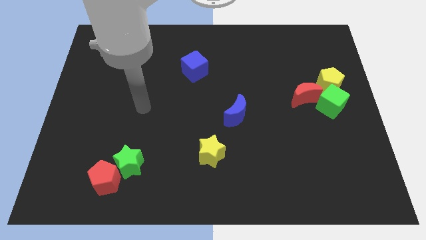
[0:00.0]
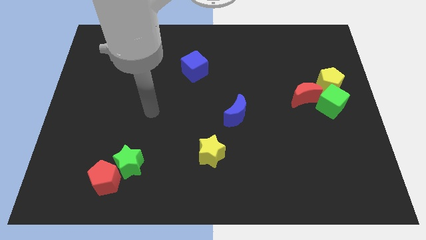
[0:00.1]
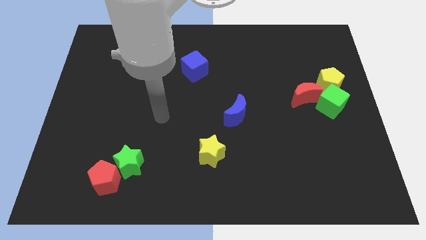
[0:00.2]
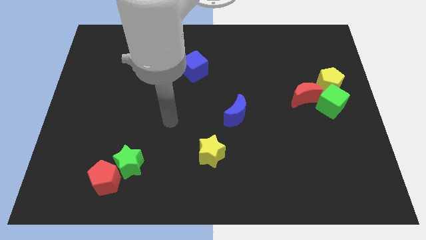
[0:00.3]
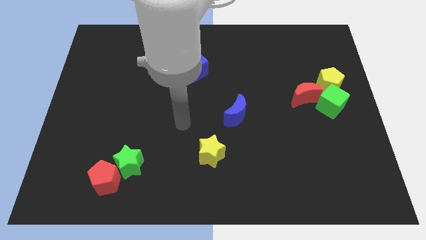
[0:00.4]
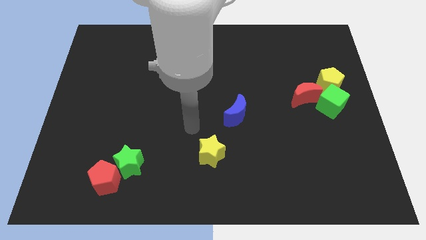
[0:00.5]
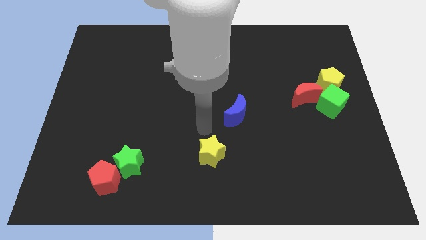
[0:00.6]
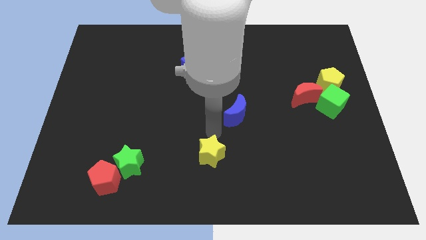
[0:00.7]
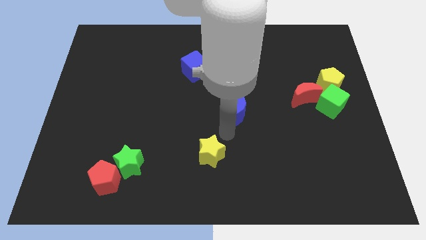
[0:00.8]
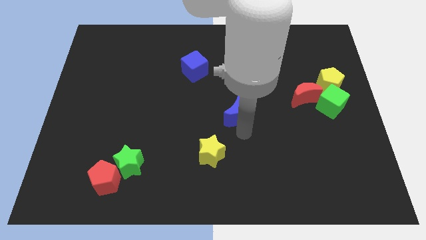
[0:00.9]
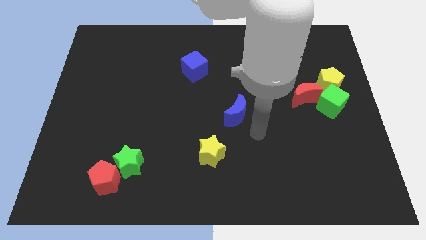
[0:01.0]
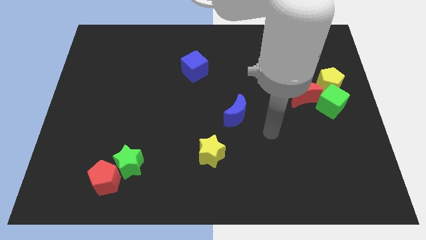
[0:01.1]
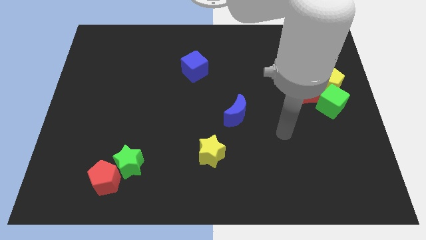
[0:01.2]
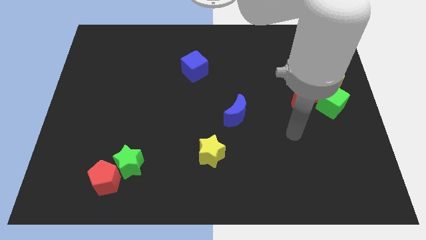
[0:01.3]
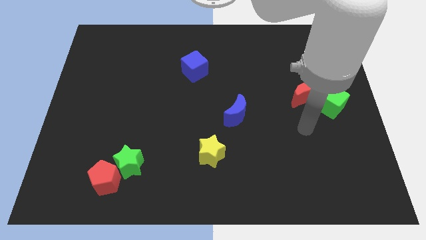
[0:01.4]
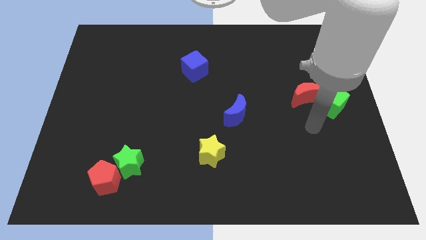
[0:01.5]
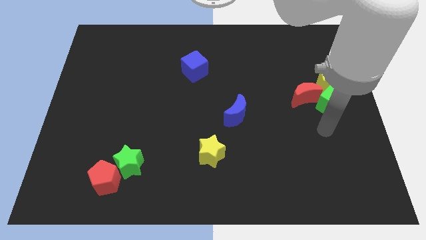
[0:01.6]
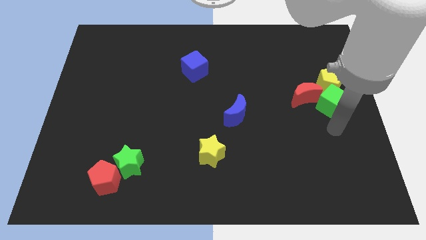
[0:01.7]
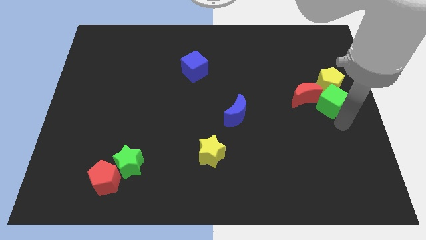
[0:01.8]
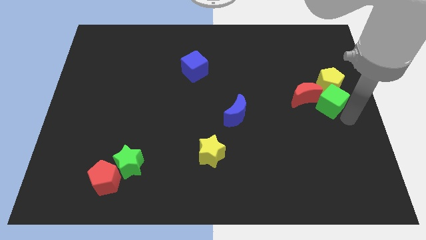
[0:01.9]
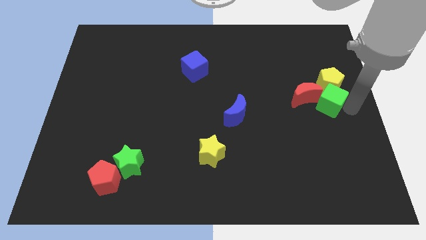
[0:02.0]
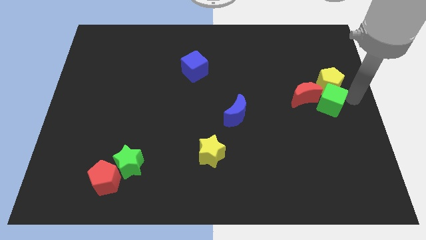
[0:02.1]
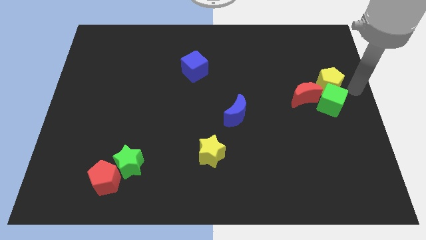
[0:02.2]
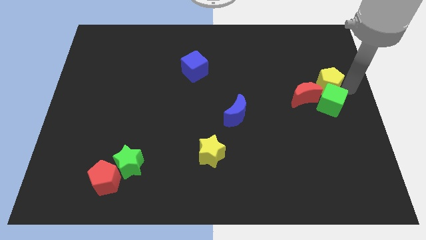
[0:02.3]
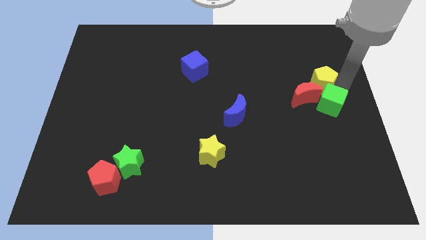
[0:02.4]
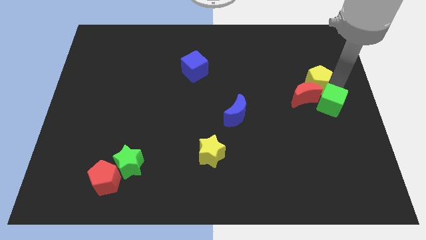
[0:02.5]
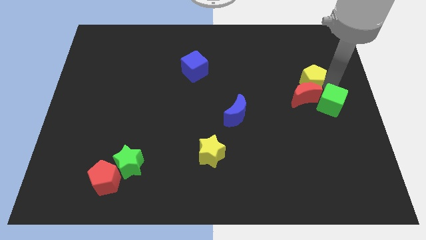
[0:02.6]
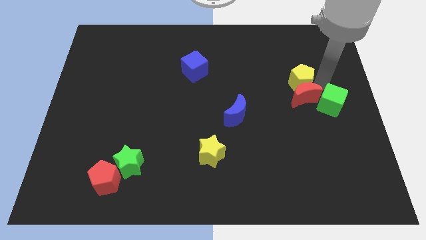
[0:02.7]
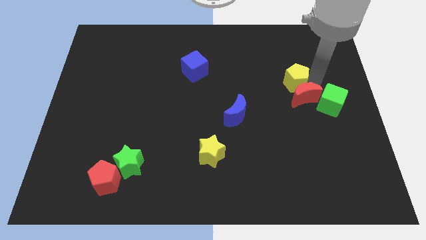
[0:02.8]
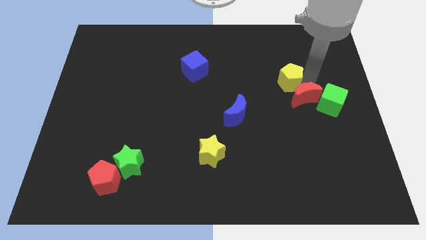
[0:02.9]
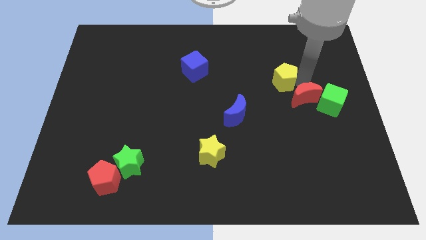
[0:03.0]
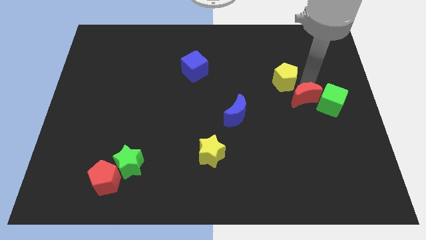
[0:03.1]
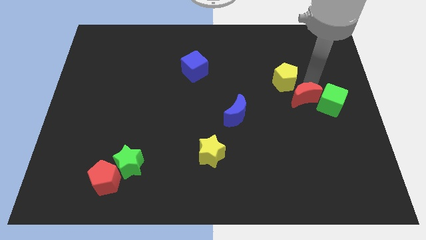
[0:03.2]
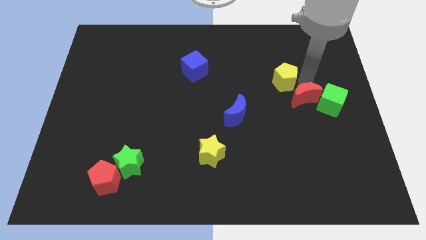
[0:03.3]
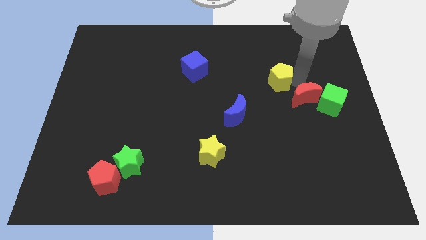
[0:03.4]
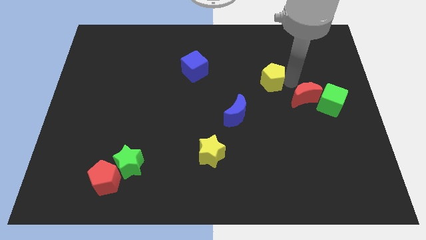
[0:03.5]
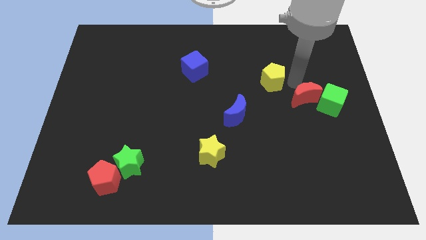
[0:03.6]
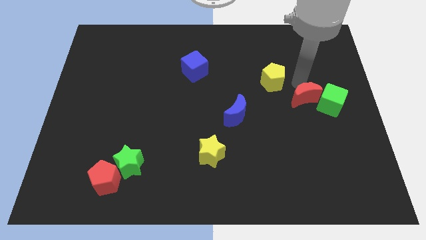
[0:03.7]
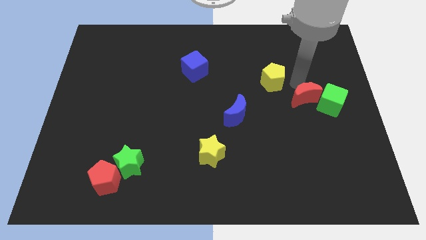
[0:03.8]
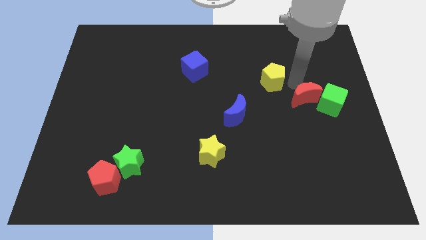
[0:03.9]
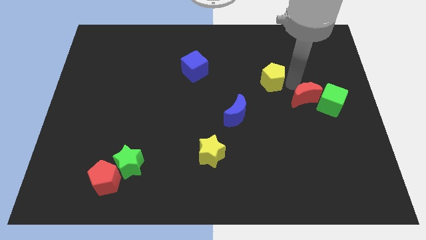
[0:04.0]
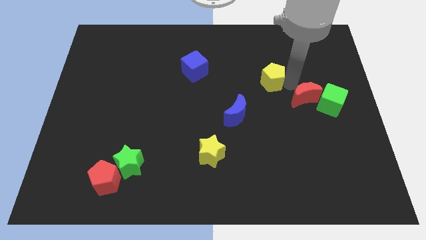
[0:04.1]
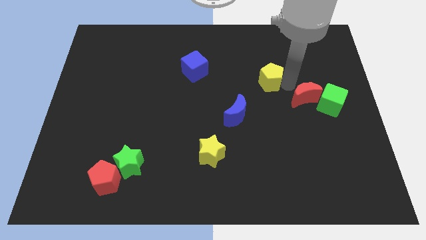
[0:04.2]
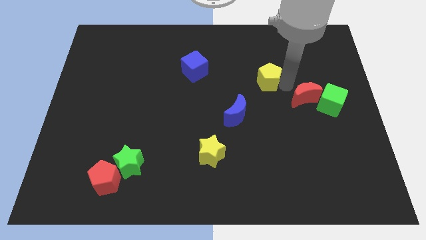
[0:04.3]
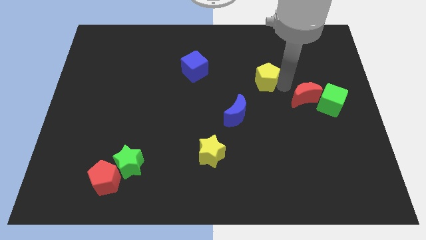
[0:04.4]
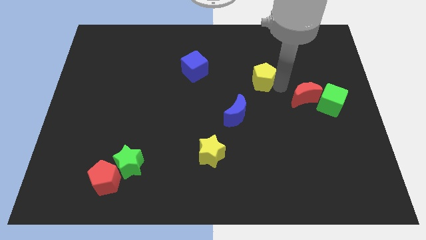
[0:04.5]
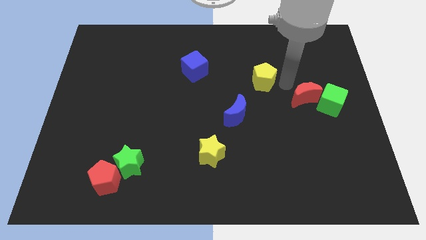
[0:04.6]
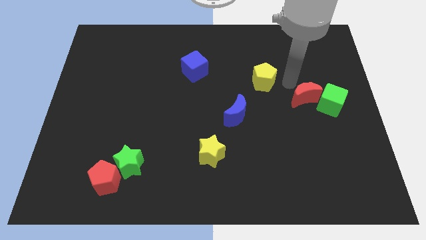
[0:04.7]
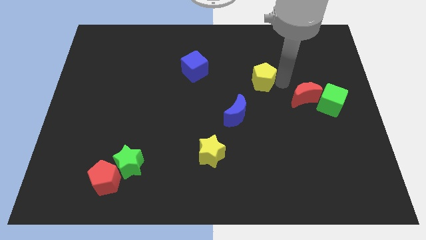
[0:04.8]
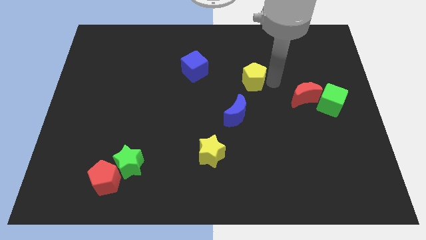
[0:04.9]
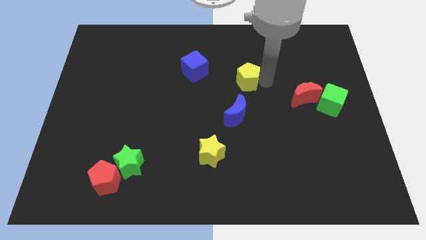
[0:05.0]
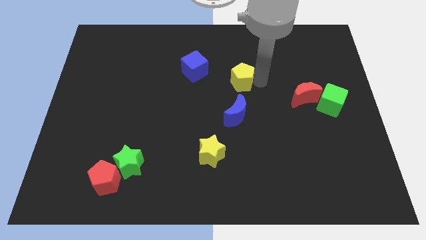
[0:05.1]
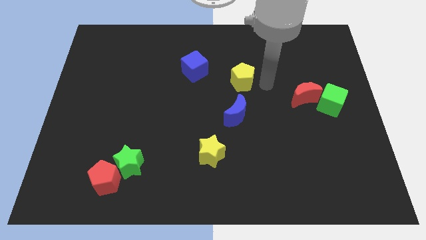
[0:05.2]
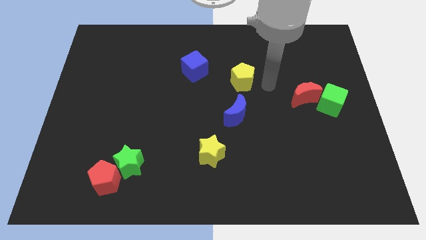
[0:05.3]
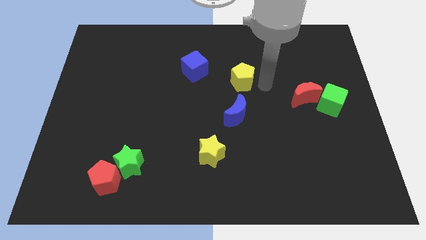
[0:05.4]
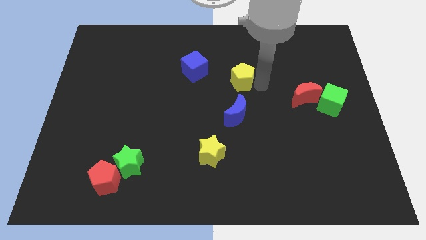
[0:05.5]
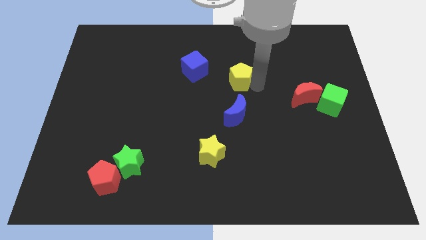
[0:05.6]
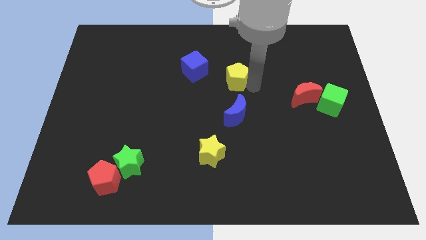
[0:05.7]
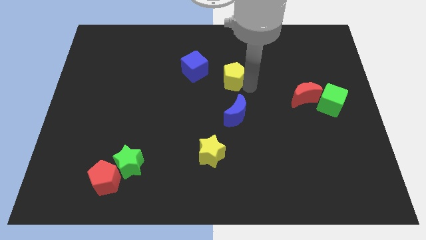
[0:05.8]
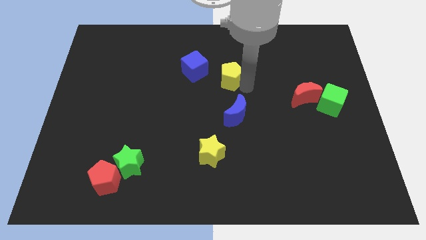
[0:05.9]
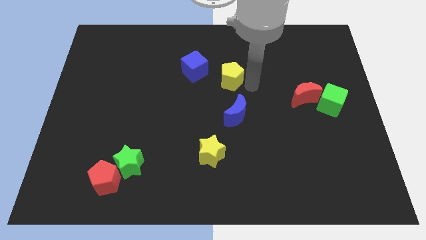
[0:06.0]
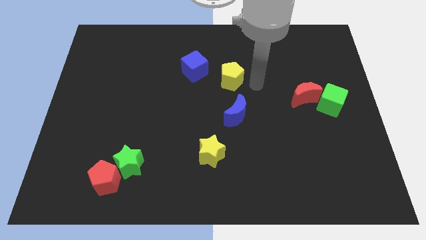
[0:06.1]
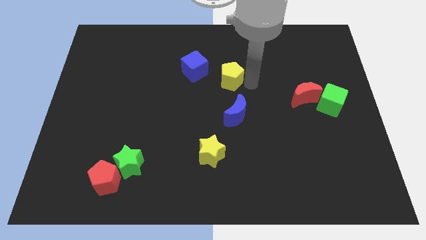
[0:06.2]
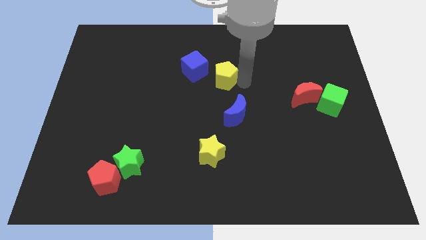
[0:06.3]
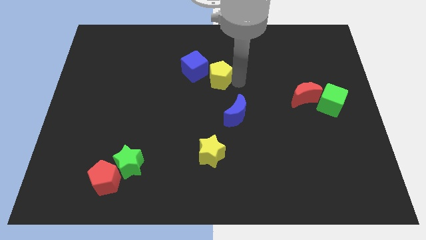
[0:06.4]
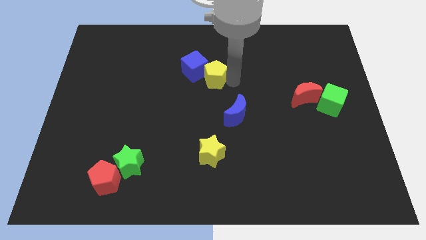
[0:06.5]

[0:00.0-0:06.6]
push the yellow pentagon close to the blue cube

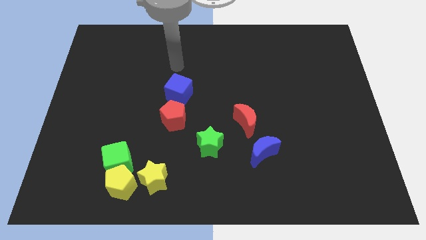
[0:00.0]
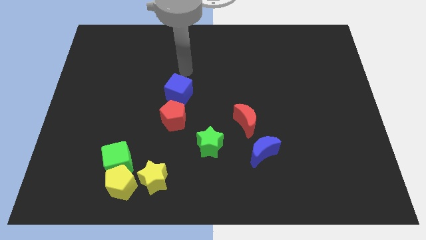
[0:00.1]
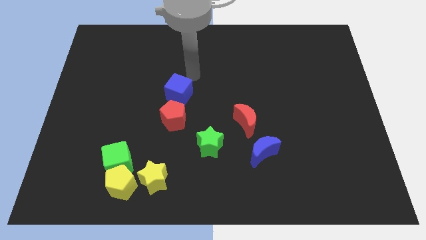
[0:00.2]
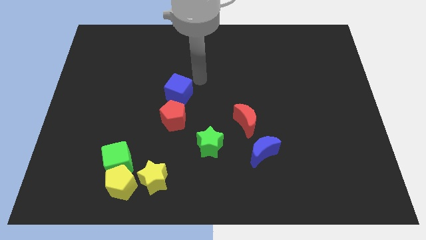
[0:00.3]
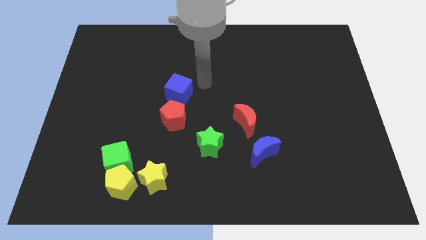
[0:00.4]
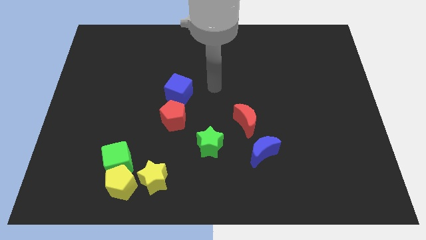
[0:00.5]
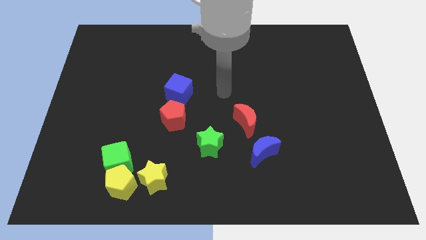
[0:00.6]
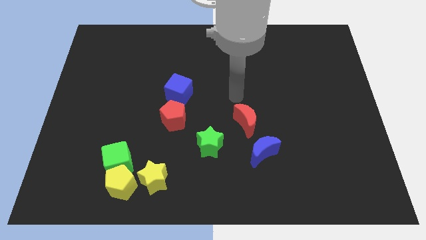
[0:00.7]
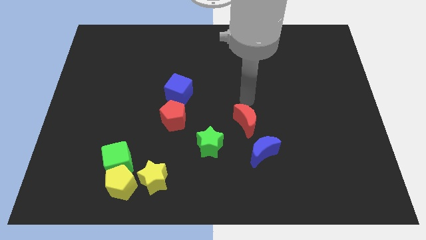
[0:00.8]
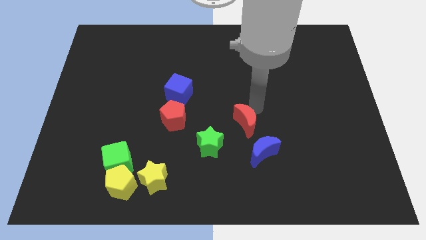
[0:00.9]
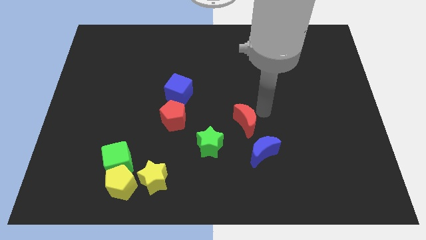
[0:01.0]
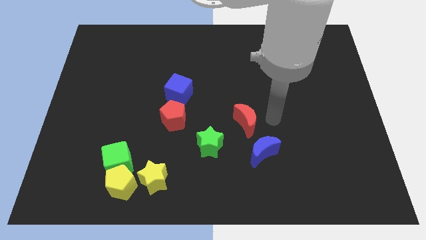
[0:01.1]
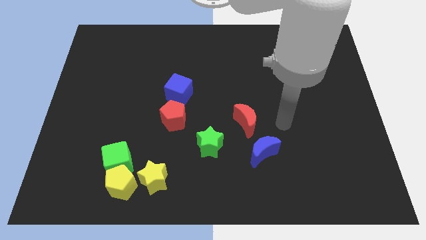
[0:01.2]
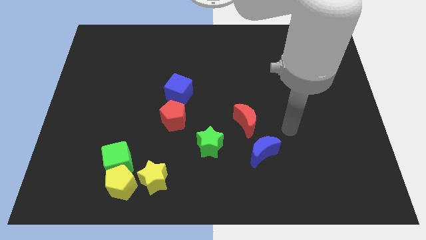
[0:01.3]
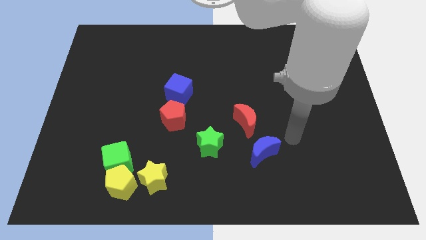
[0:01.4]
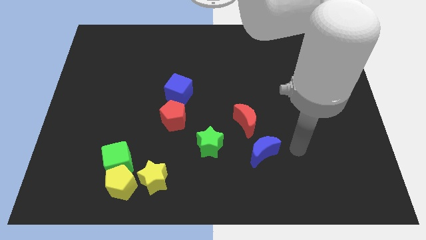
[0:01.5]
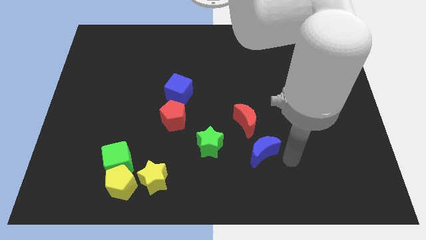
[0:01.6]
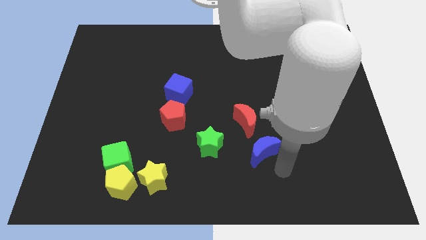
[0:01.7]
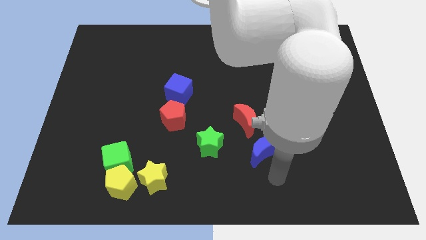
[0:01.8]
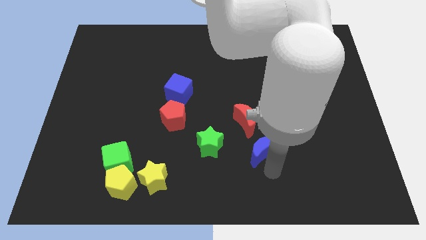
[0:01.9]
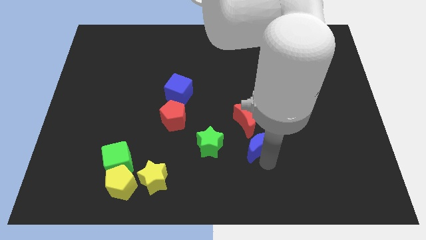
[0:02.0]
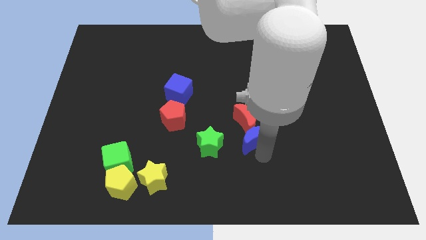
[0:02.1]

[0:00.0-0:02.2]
slide the blue moon close to the red moon
